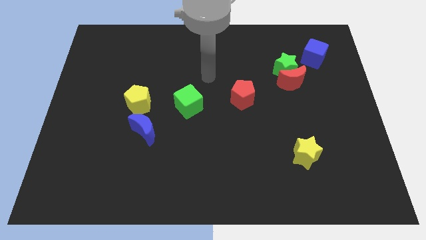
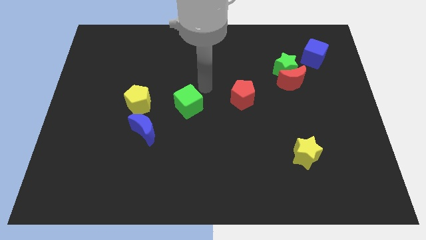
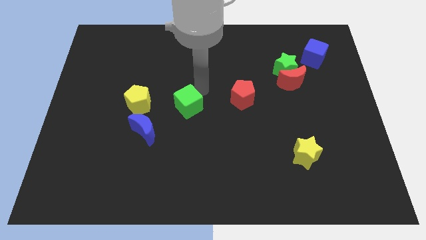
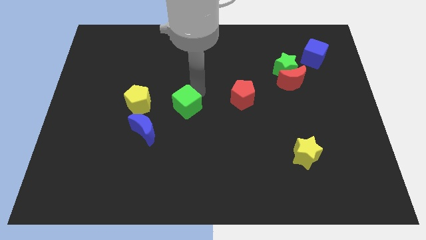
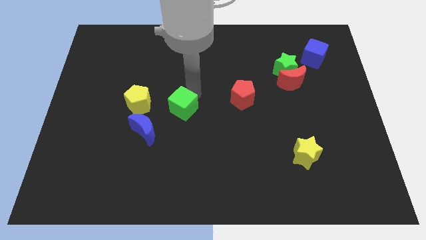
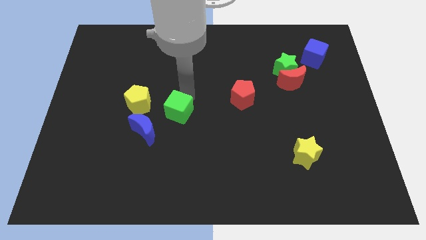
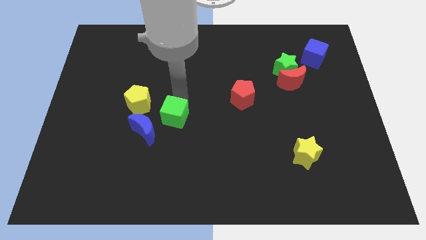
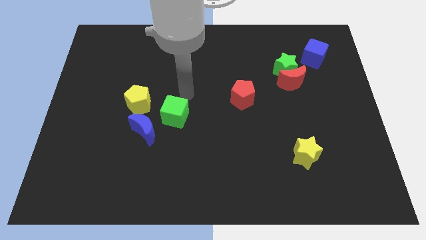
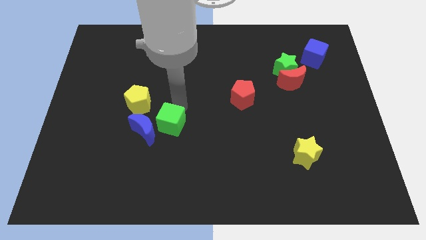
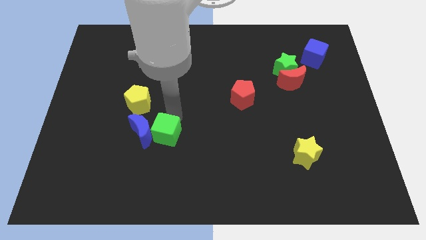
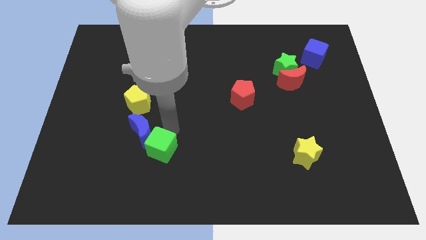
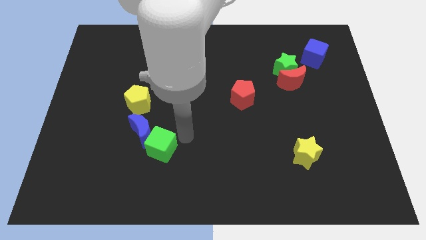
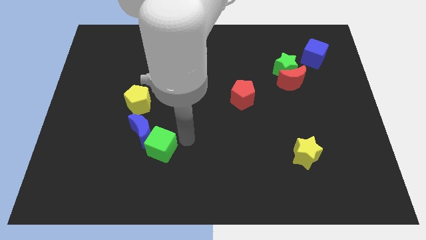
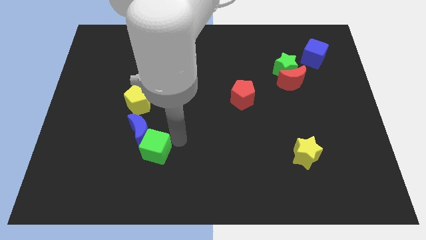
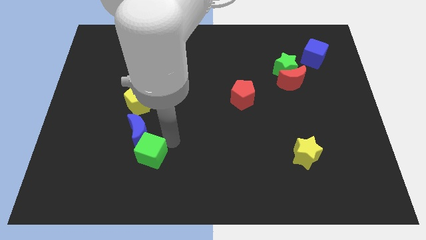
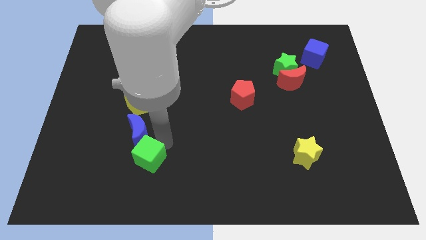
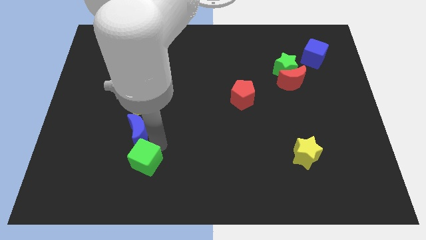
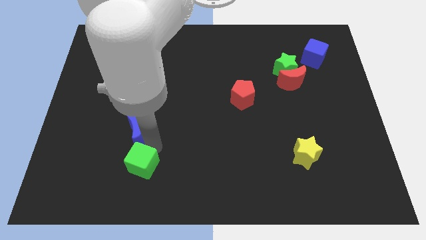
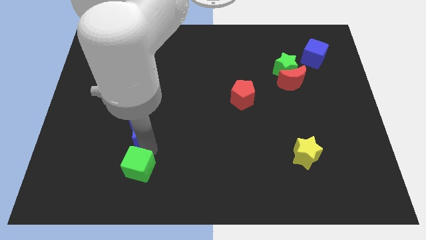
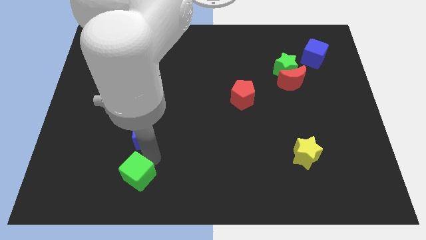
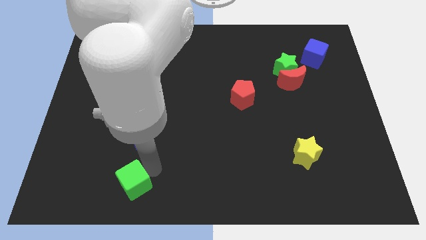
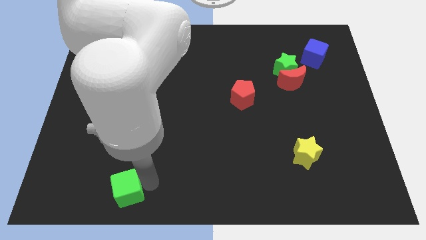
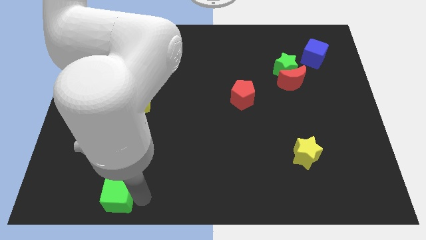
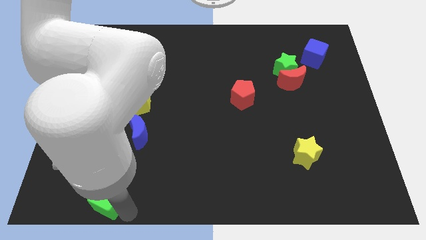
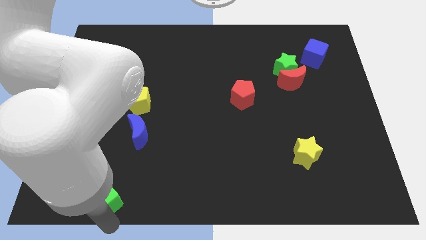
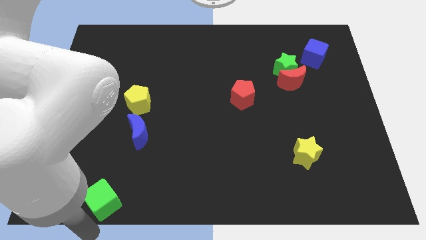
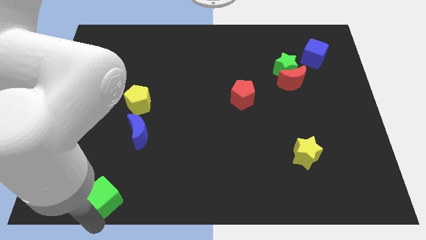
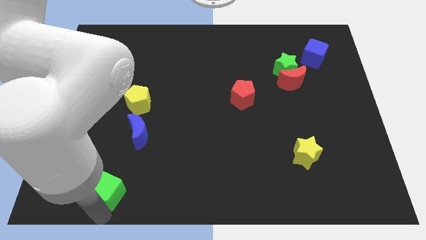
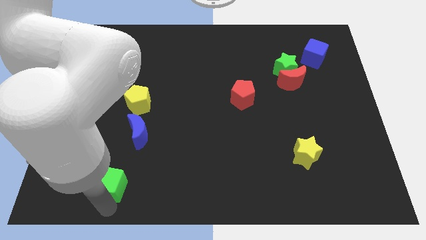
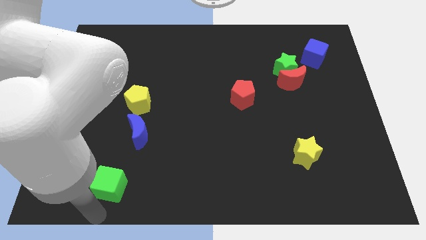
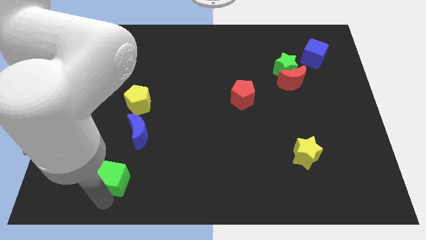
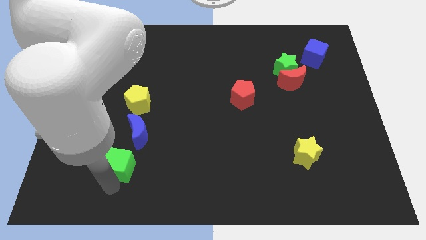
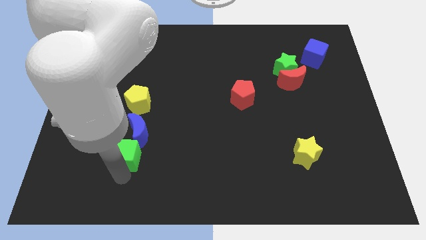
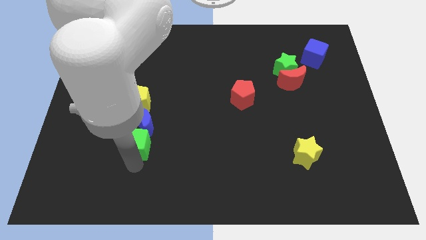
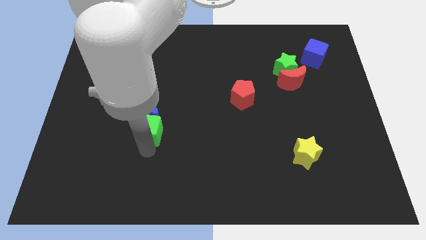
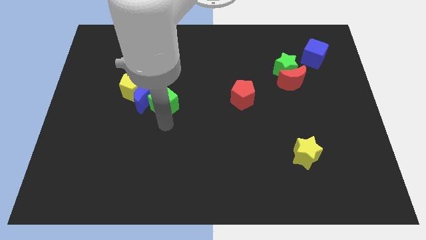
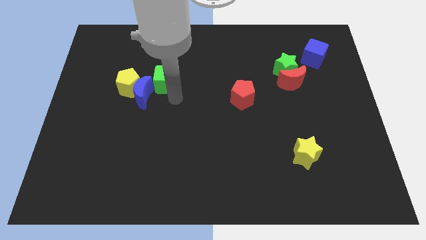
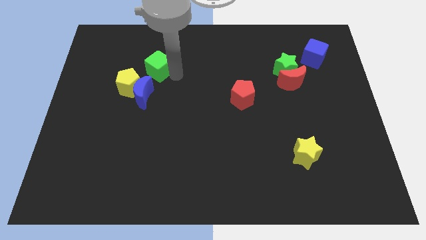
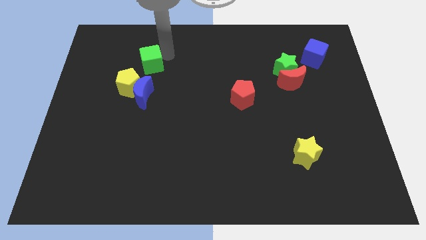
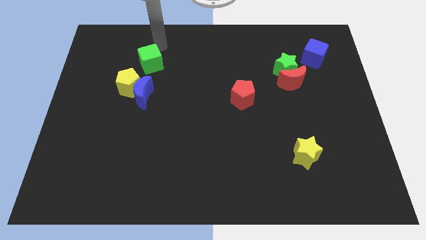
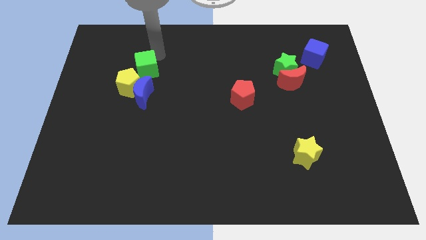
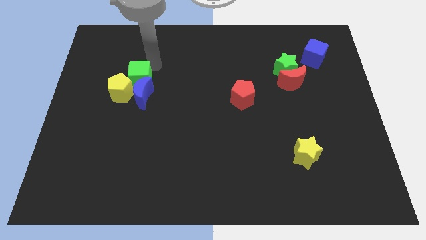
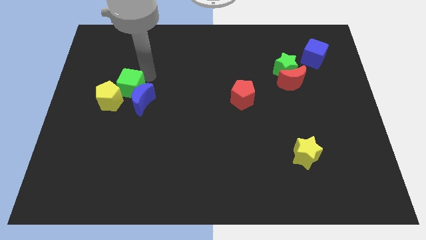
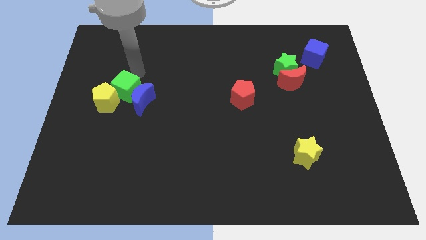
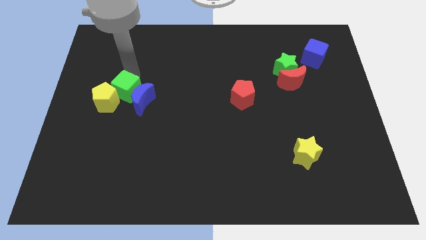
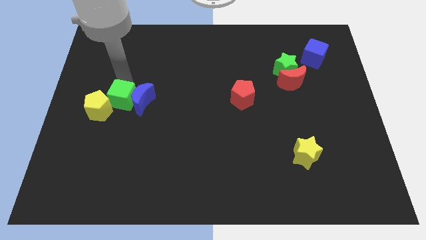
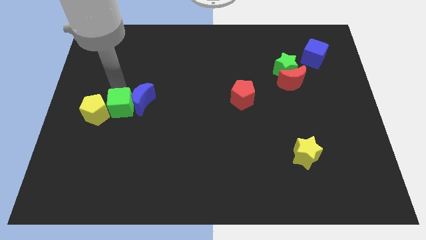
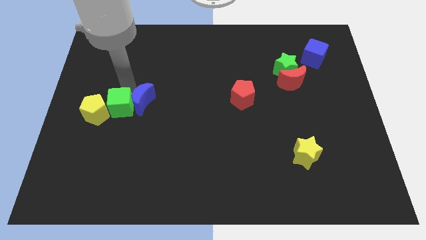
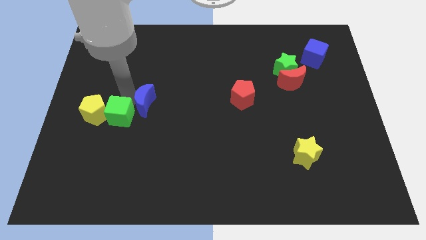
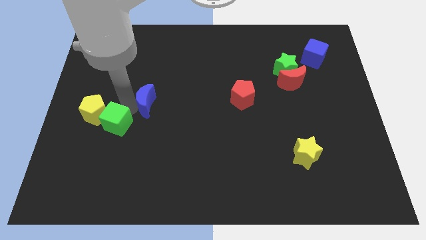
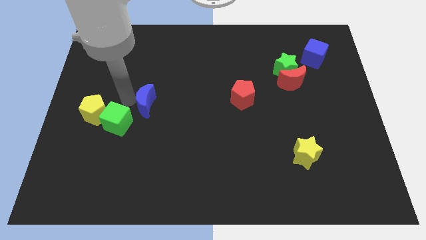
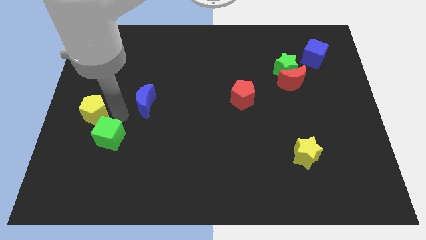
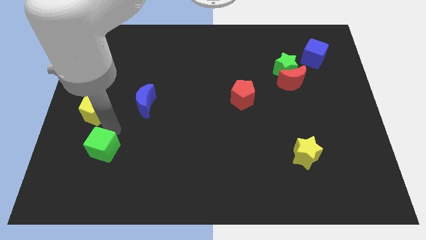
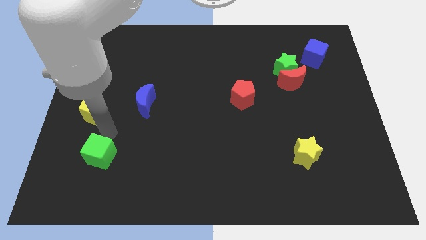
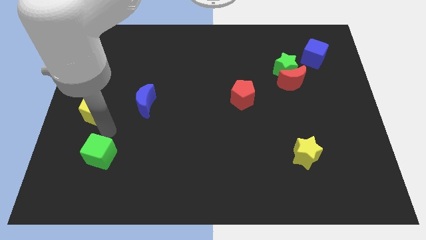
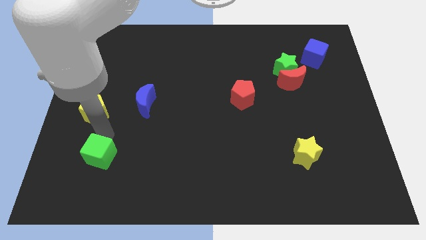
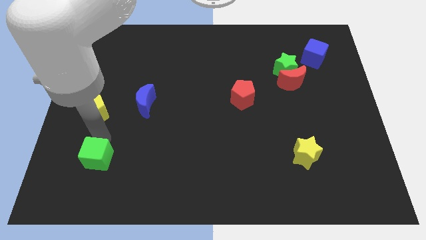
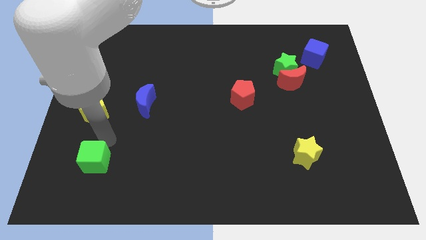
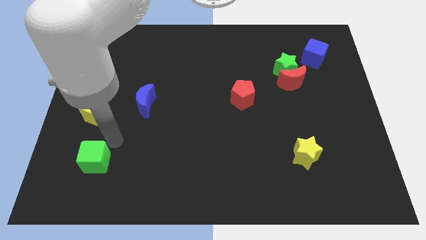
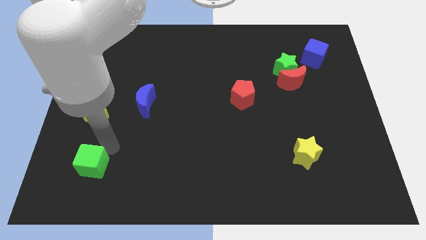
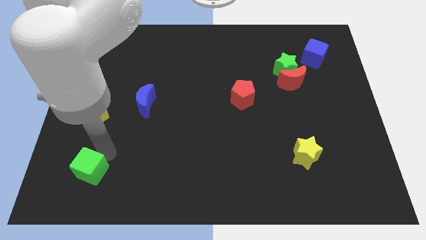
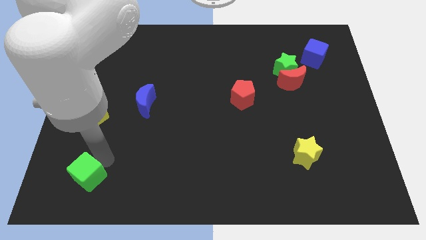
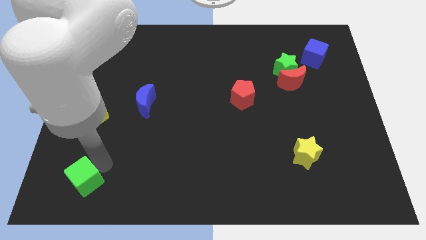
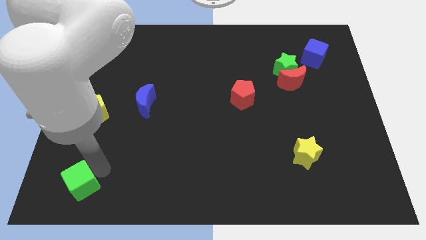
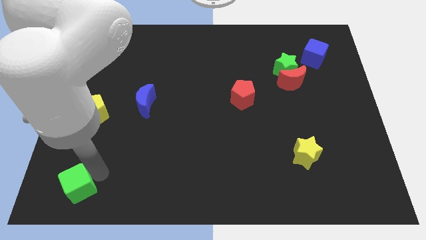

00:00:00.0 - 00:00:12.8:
put the green cube to the bottom left corner
